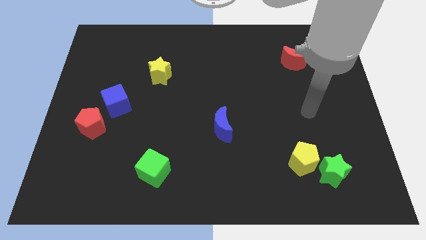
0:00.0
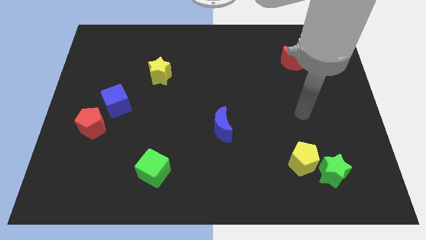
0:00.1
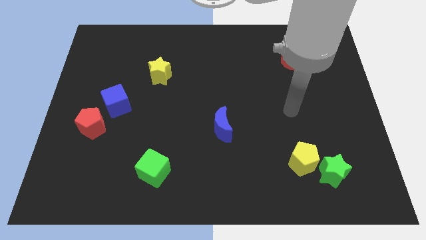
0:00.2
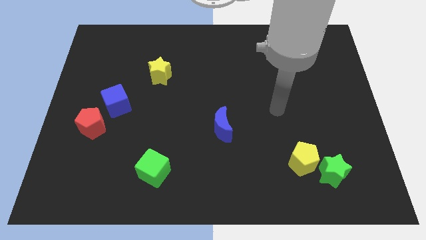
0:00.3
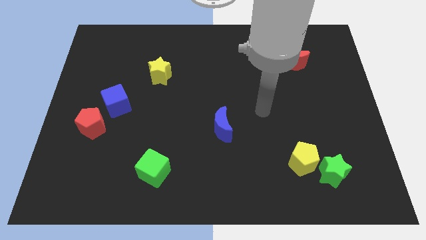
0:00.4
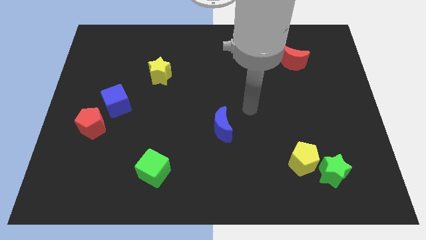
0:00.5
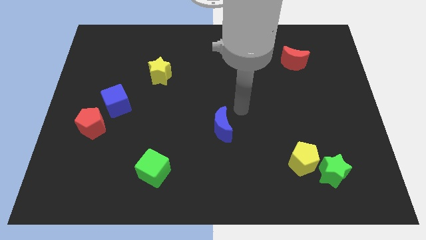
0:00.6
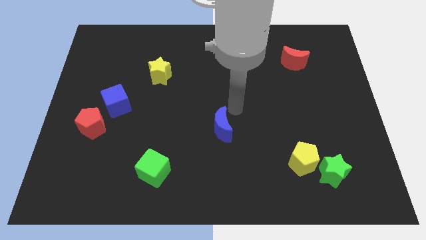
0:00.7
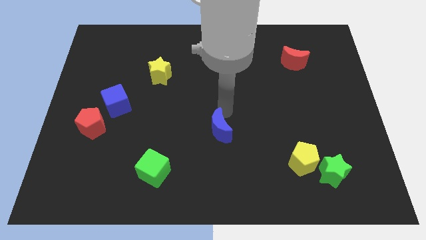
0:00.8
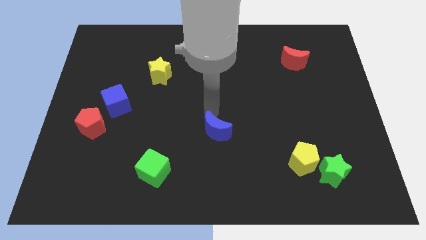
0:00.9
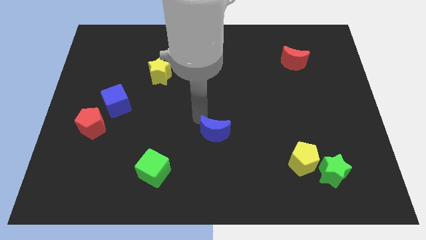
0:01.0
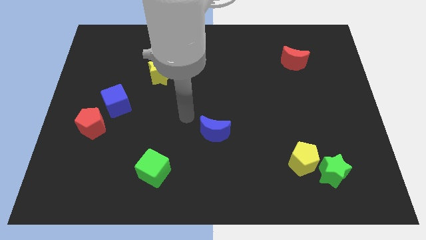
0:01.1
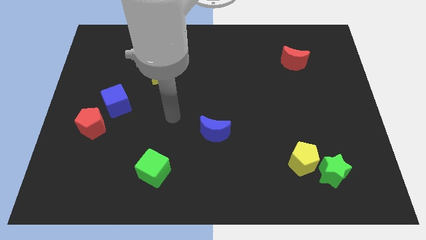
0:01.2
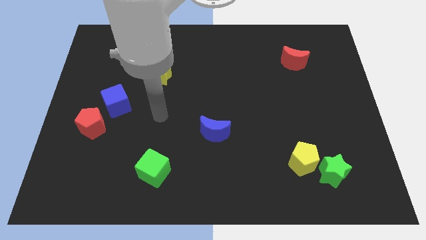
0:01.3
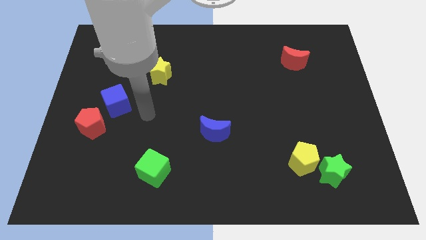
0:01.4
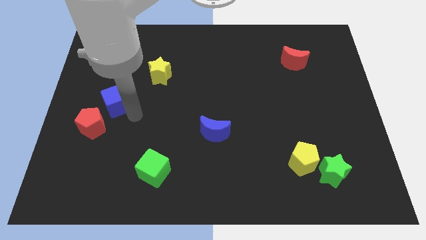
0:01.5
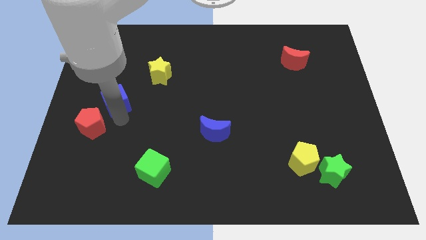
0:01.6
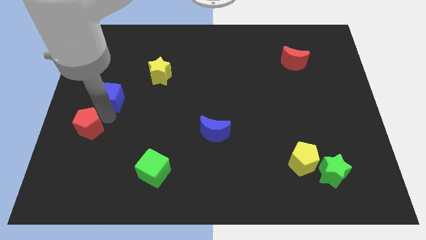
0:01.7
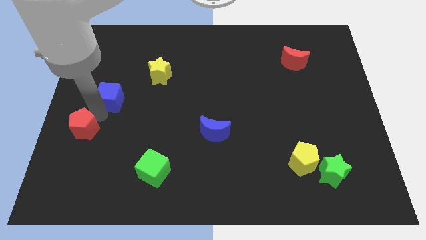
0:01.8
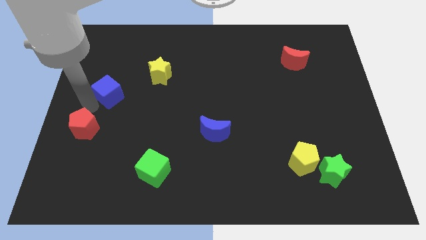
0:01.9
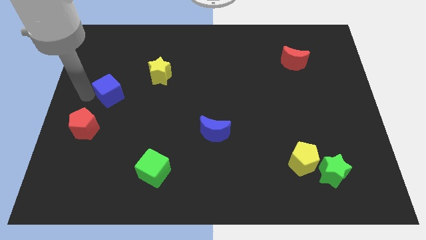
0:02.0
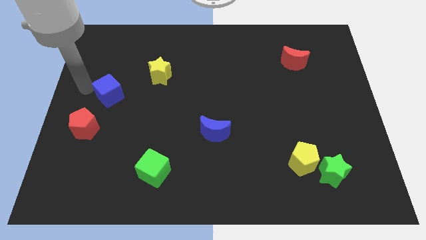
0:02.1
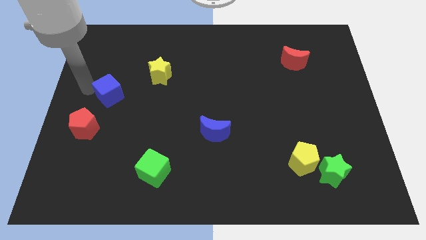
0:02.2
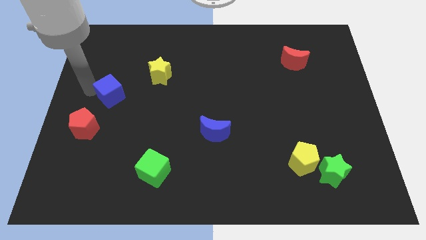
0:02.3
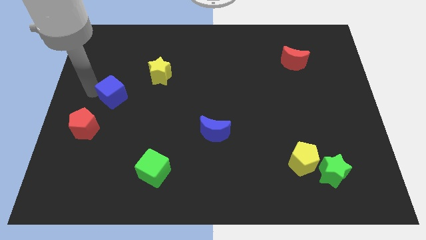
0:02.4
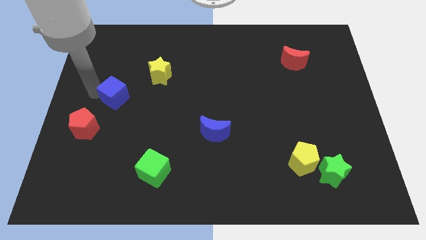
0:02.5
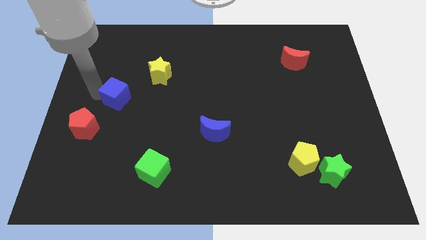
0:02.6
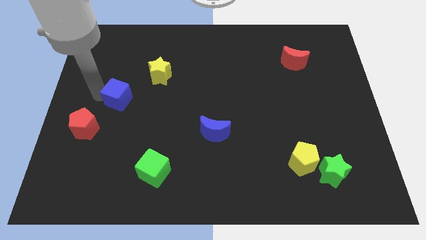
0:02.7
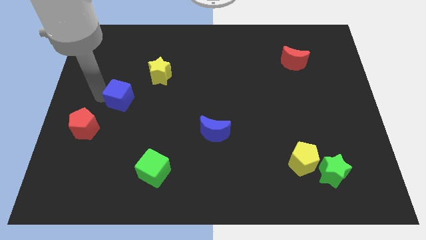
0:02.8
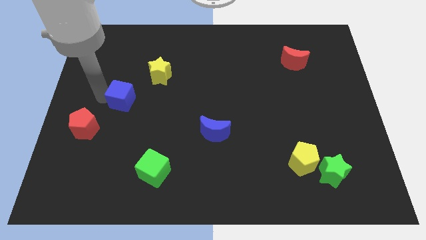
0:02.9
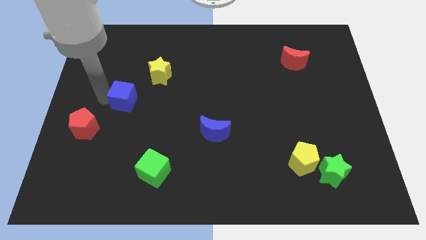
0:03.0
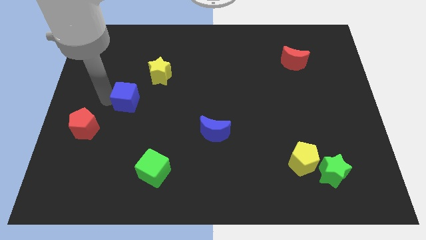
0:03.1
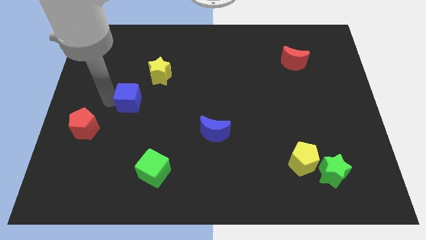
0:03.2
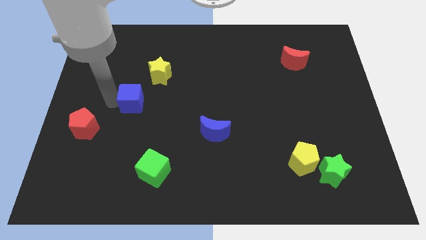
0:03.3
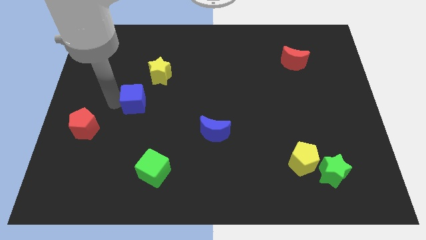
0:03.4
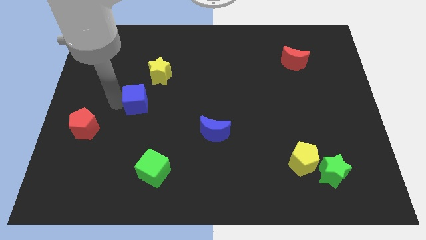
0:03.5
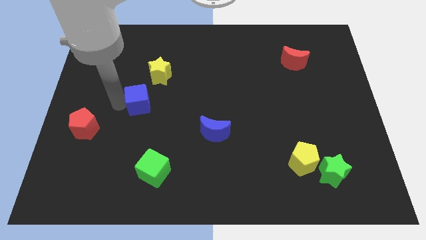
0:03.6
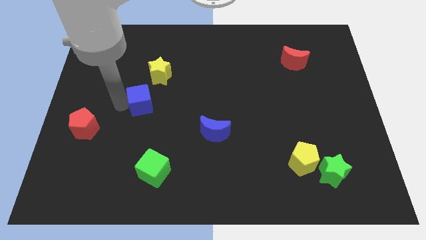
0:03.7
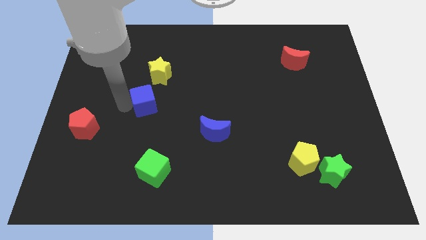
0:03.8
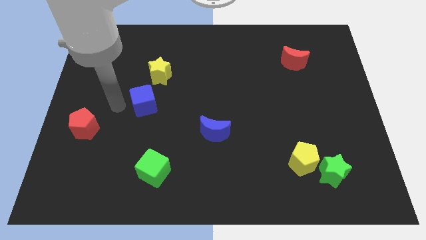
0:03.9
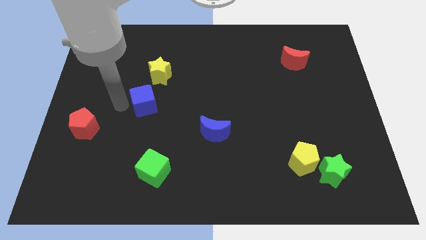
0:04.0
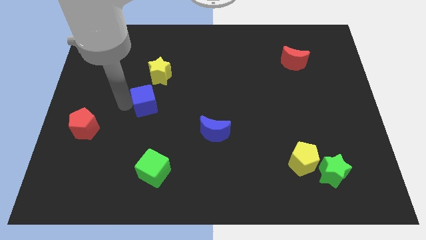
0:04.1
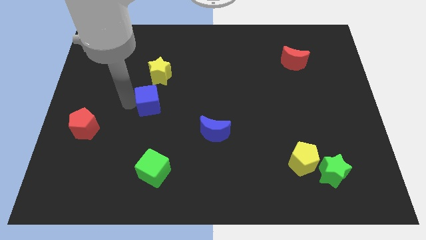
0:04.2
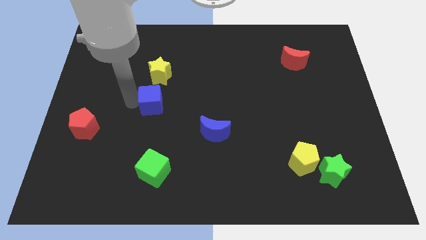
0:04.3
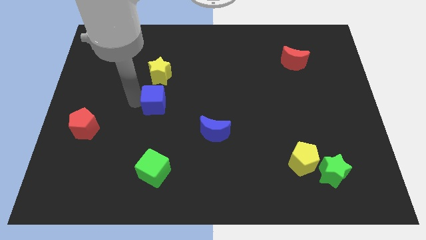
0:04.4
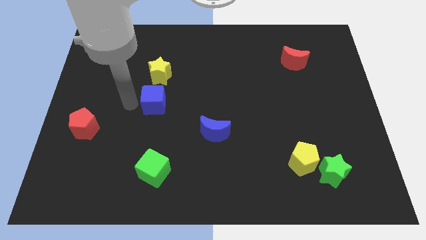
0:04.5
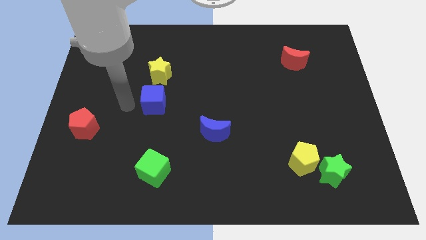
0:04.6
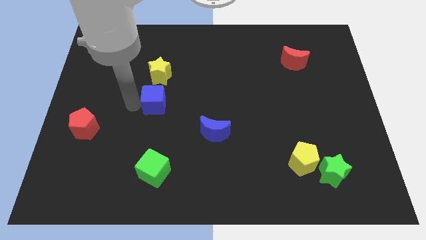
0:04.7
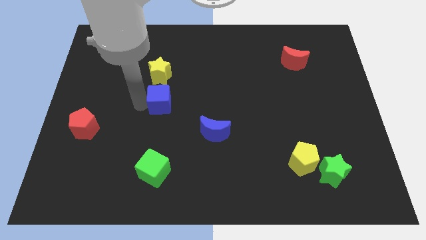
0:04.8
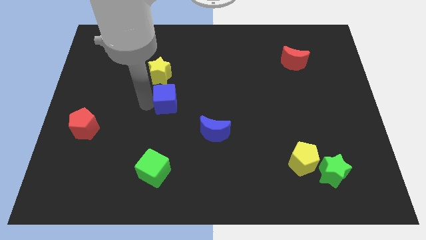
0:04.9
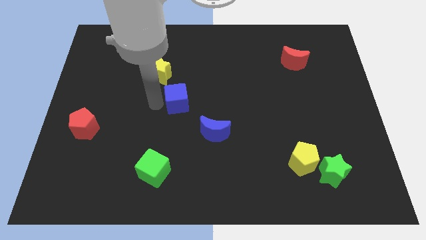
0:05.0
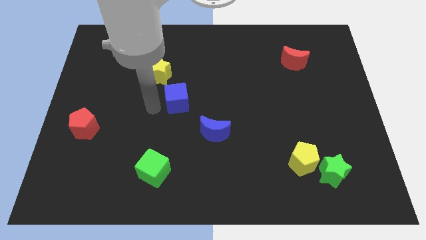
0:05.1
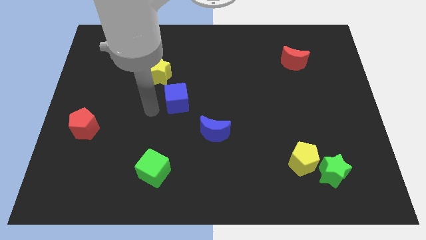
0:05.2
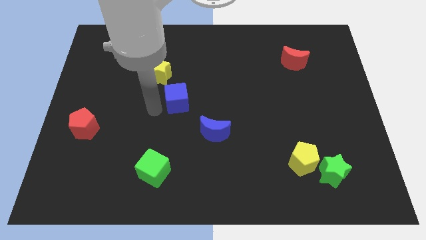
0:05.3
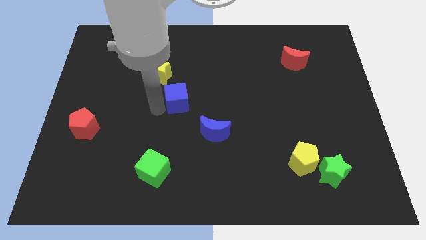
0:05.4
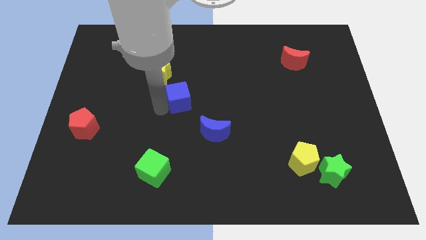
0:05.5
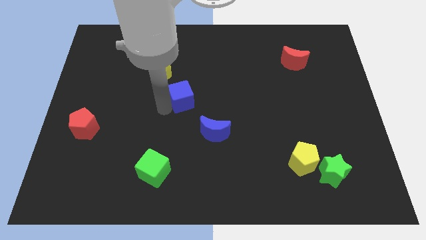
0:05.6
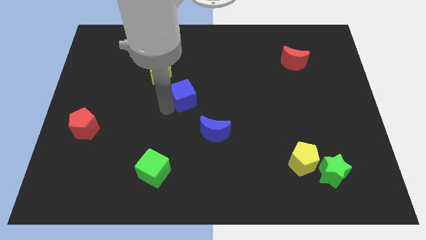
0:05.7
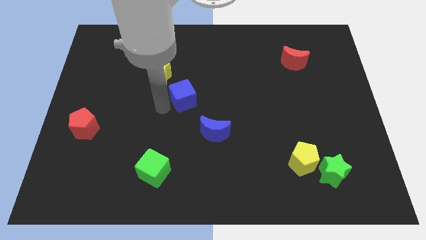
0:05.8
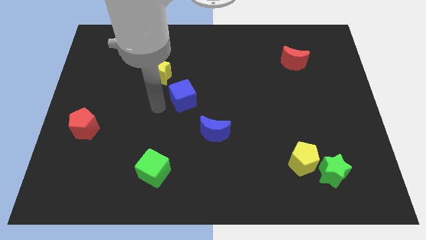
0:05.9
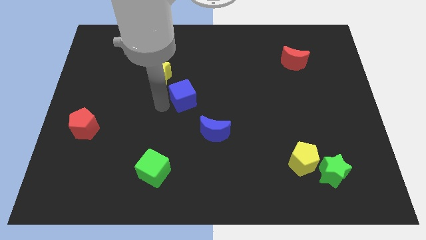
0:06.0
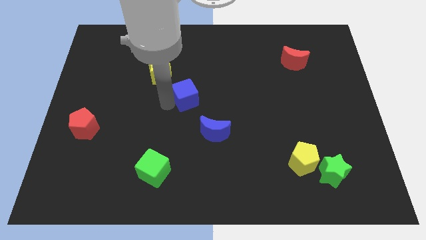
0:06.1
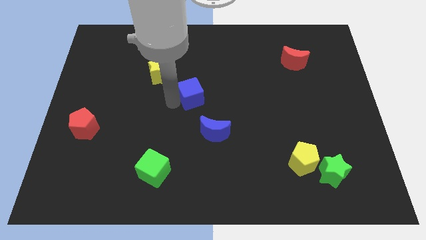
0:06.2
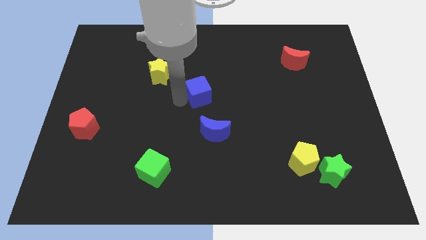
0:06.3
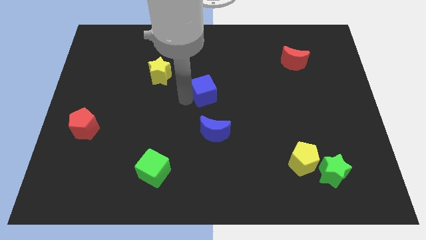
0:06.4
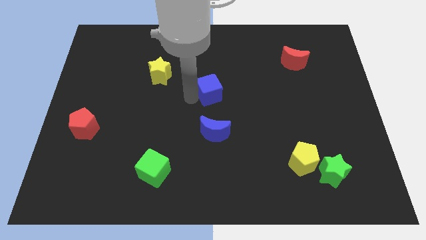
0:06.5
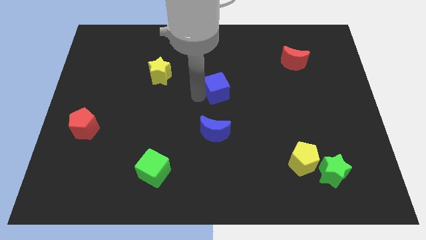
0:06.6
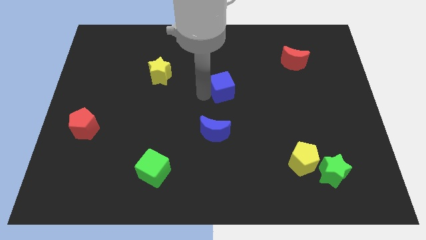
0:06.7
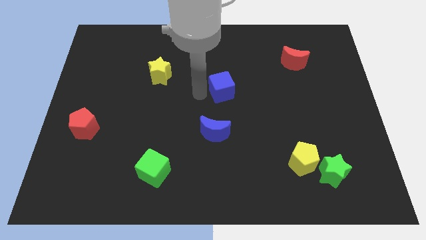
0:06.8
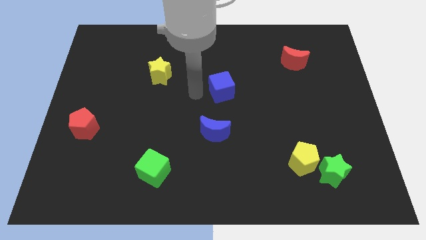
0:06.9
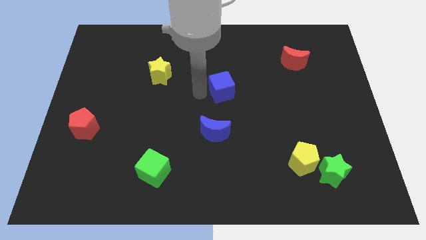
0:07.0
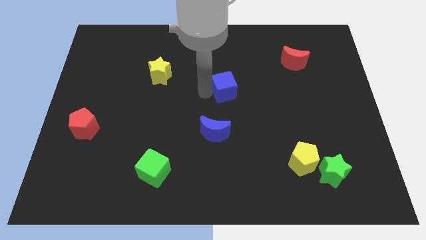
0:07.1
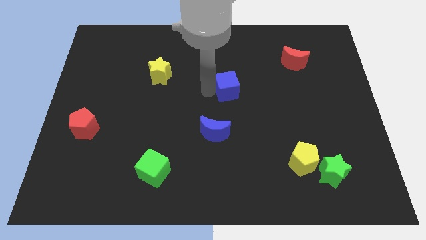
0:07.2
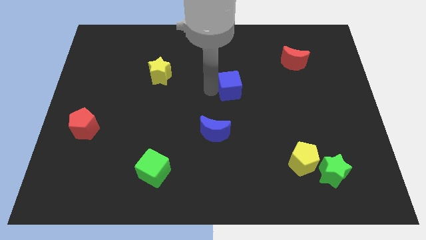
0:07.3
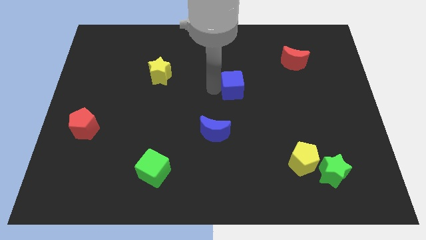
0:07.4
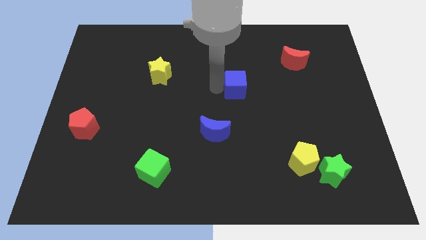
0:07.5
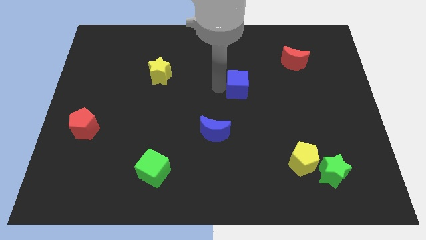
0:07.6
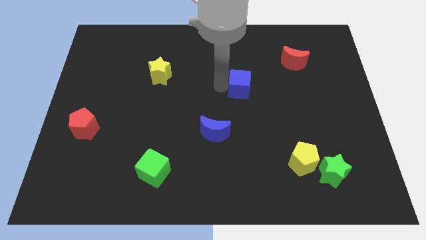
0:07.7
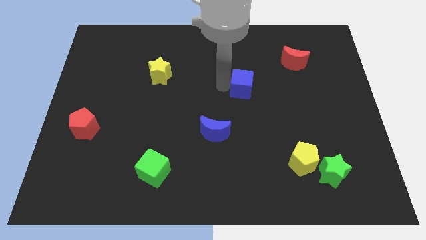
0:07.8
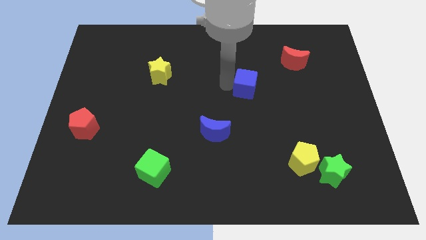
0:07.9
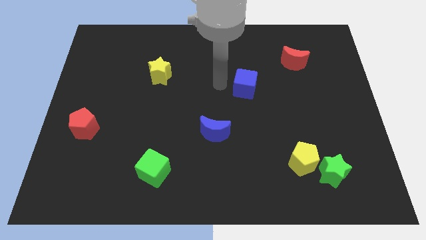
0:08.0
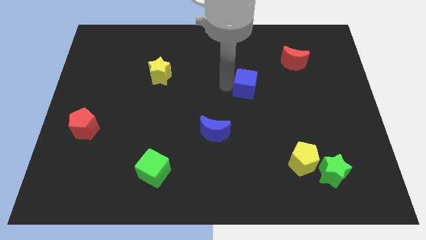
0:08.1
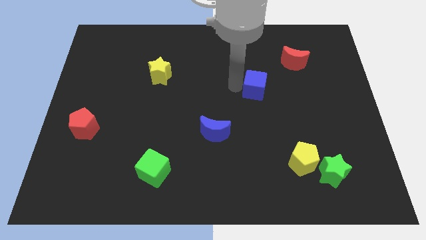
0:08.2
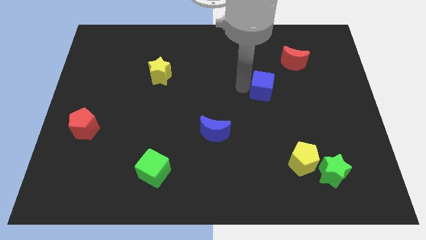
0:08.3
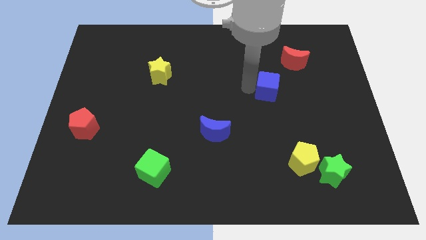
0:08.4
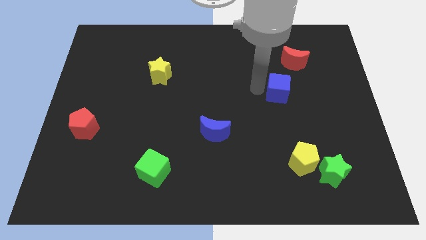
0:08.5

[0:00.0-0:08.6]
put the blue cube below the red moon
